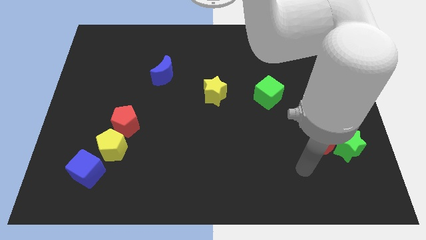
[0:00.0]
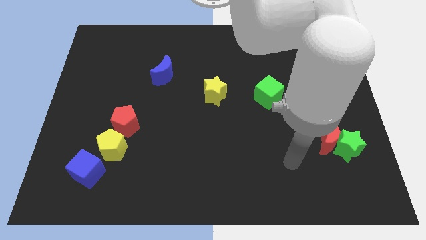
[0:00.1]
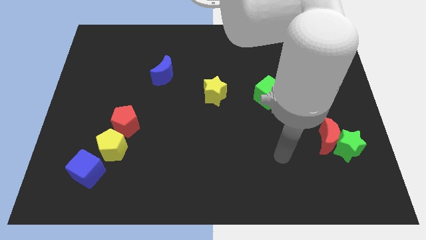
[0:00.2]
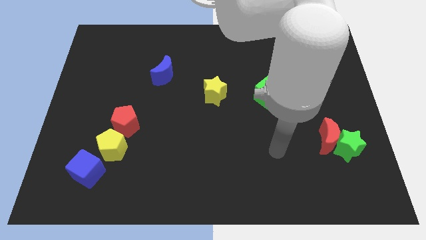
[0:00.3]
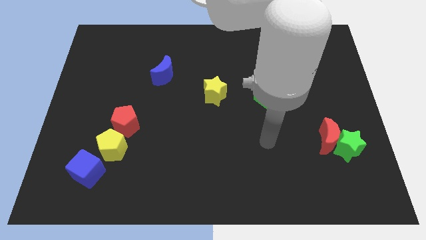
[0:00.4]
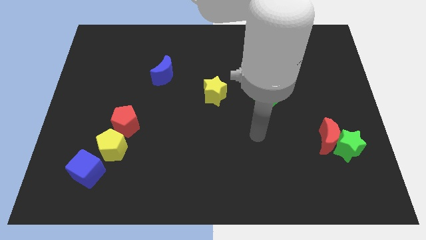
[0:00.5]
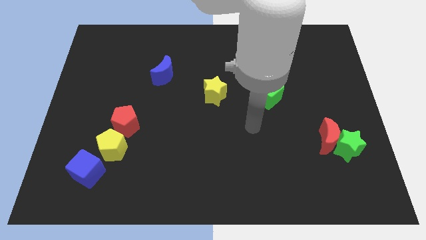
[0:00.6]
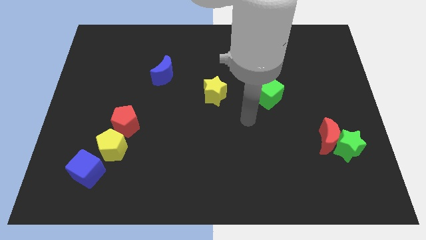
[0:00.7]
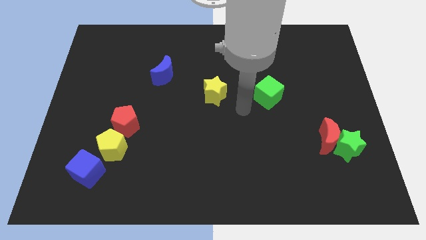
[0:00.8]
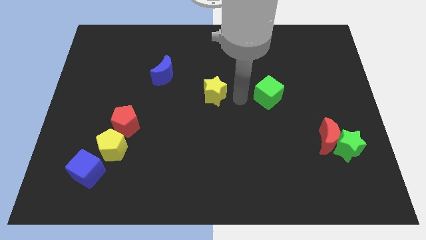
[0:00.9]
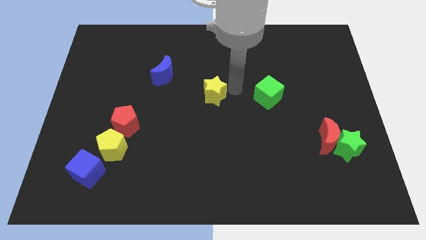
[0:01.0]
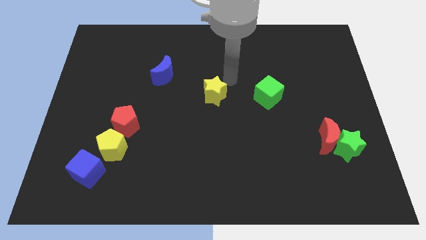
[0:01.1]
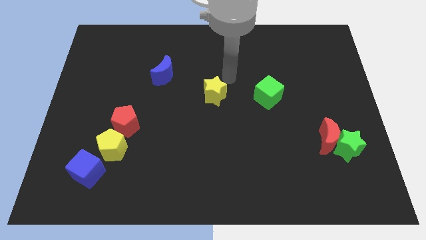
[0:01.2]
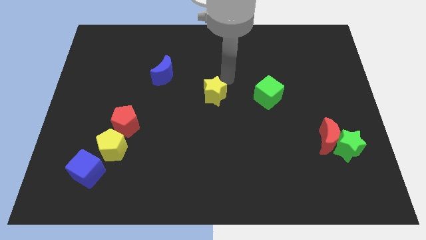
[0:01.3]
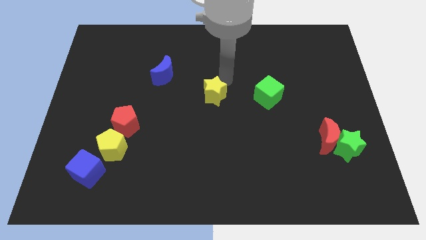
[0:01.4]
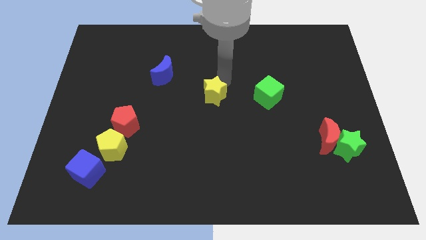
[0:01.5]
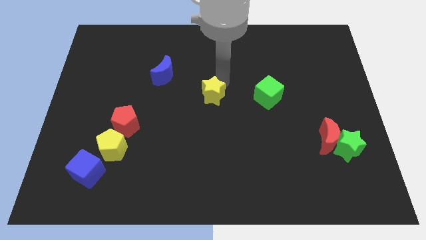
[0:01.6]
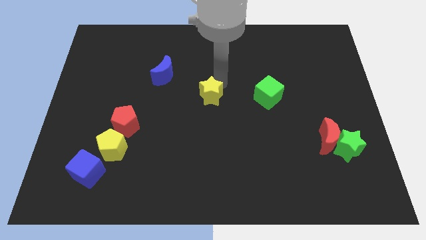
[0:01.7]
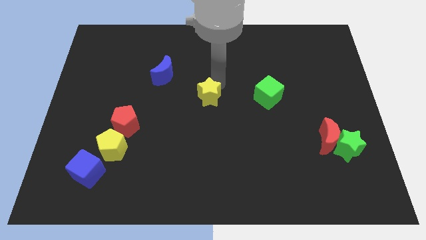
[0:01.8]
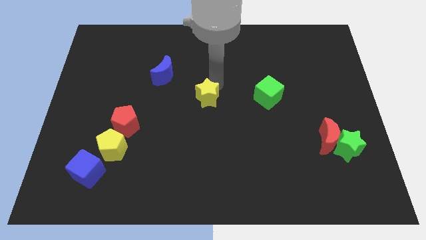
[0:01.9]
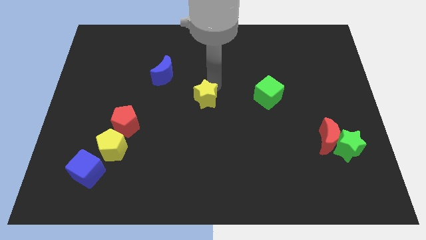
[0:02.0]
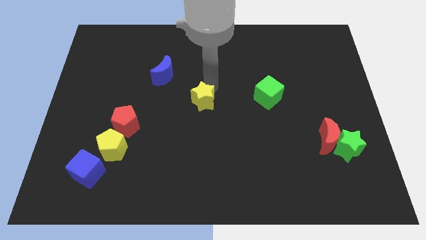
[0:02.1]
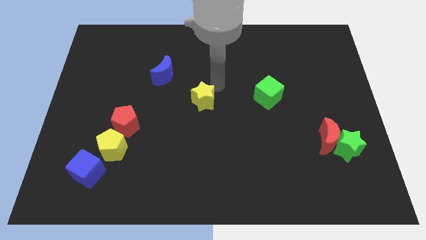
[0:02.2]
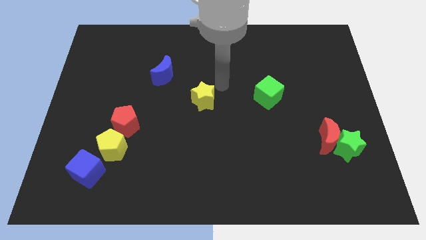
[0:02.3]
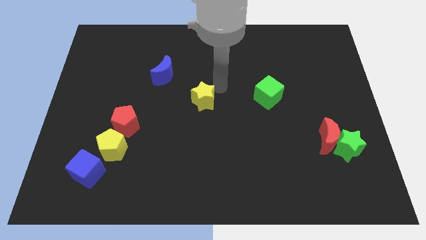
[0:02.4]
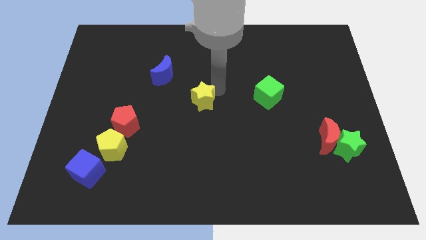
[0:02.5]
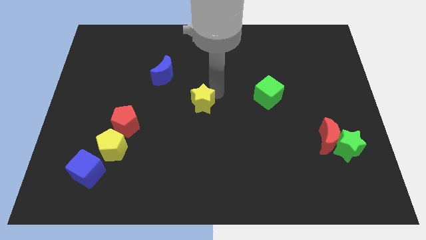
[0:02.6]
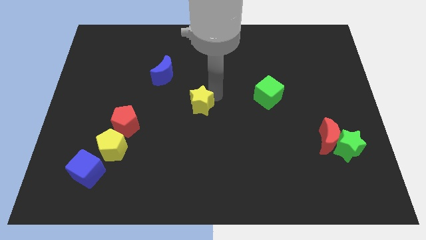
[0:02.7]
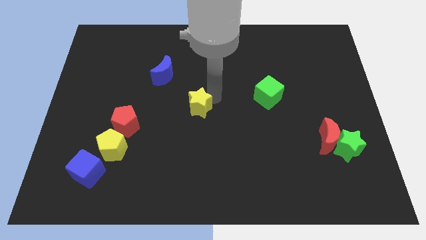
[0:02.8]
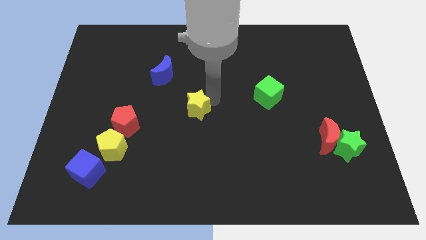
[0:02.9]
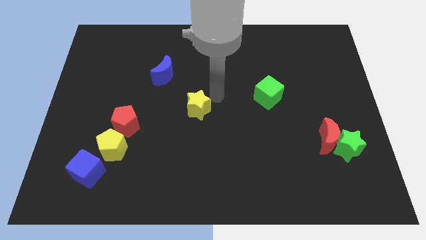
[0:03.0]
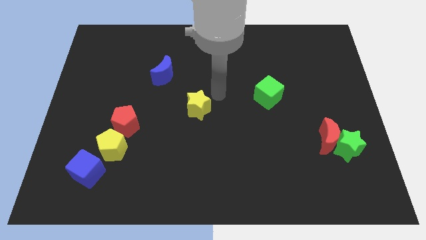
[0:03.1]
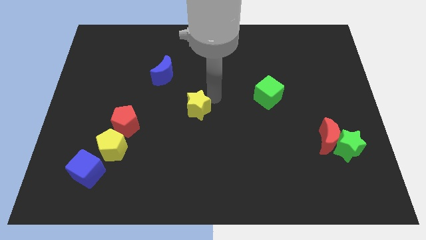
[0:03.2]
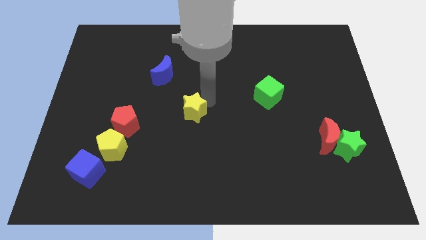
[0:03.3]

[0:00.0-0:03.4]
push the yellow star downwards and left a little bit

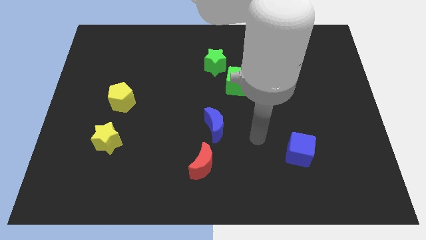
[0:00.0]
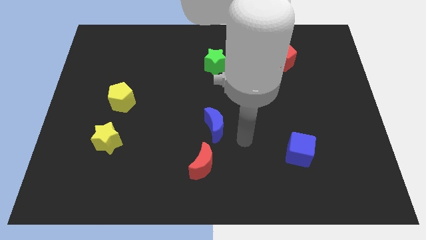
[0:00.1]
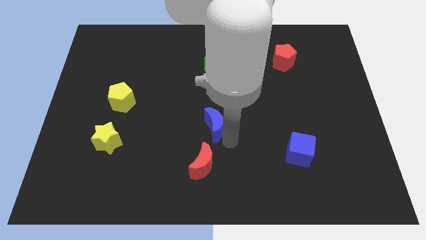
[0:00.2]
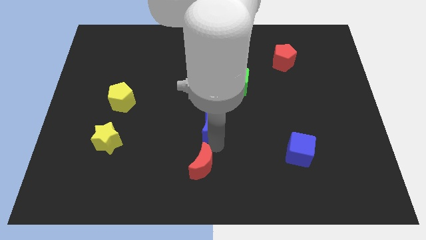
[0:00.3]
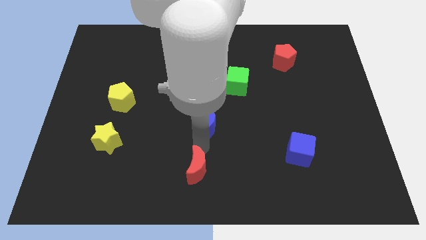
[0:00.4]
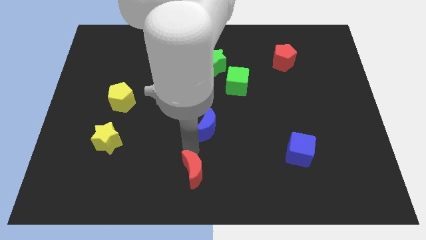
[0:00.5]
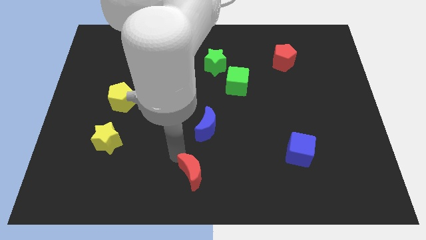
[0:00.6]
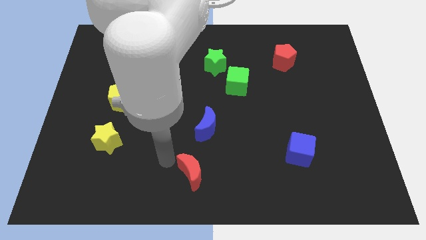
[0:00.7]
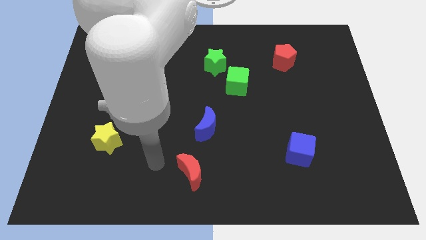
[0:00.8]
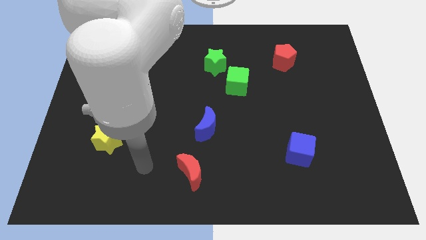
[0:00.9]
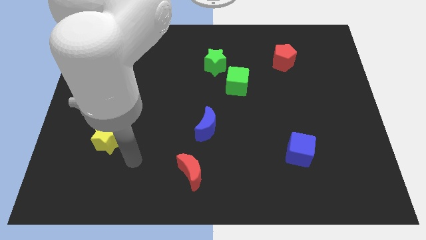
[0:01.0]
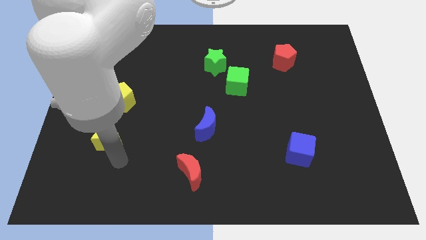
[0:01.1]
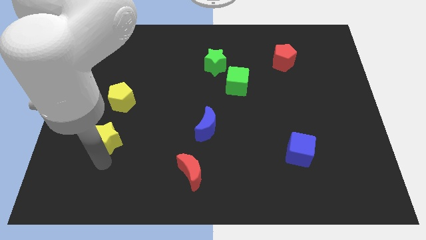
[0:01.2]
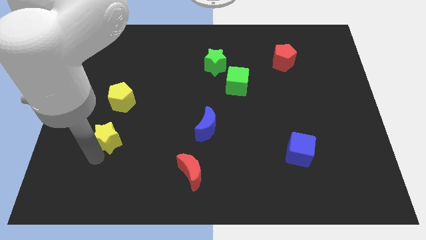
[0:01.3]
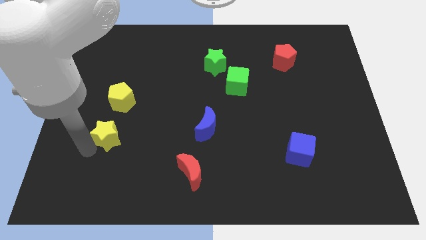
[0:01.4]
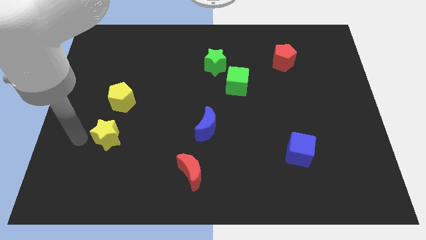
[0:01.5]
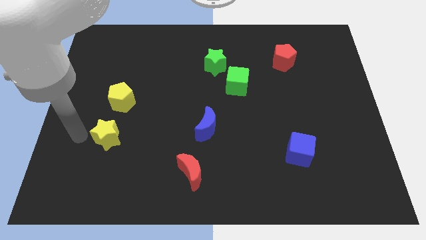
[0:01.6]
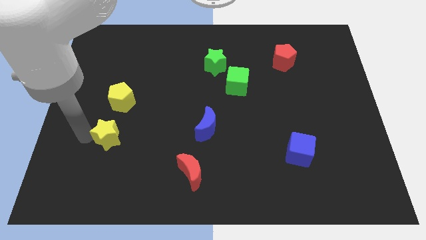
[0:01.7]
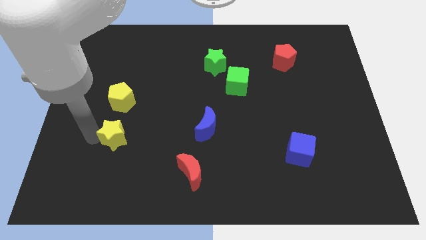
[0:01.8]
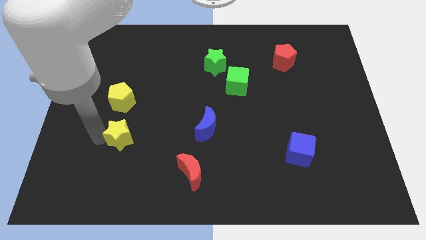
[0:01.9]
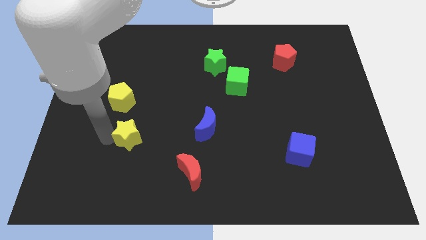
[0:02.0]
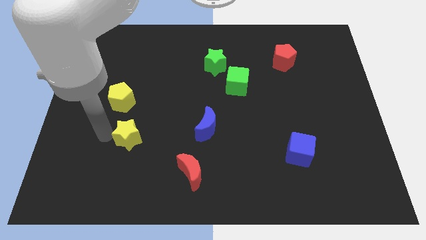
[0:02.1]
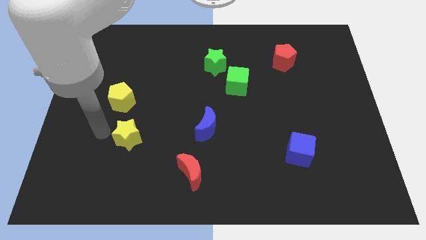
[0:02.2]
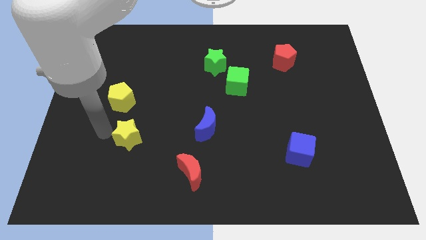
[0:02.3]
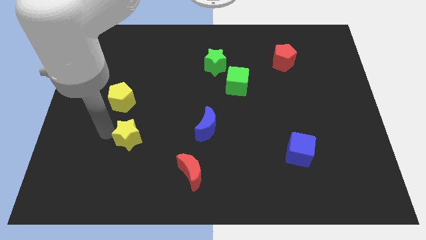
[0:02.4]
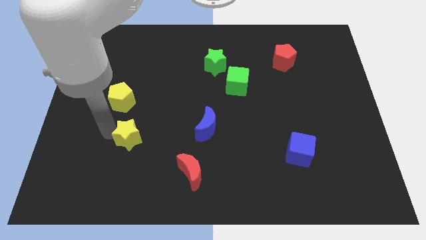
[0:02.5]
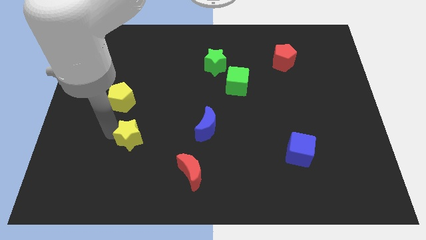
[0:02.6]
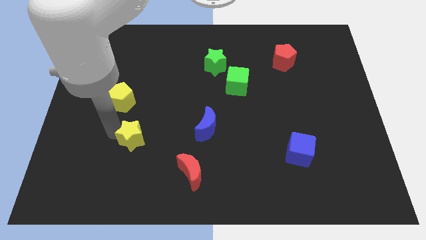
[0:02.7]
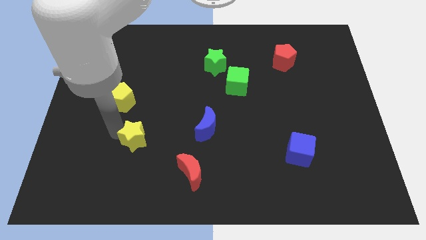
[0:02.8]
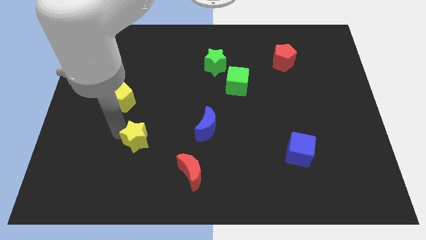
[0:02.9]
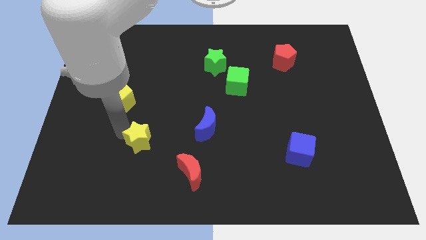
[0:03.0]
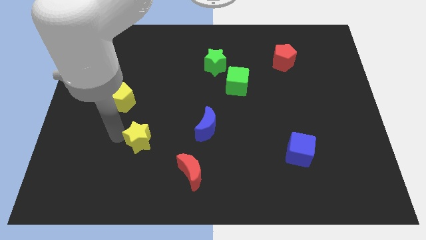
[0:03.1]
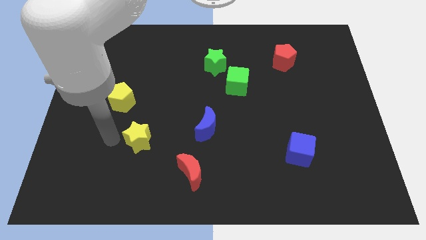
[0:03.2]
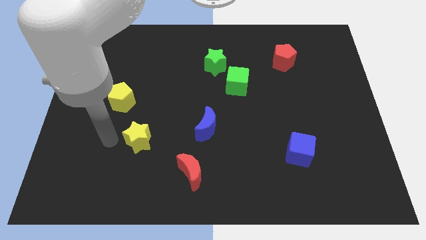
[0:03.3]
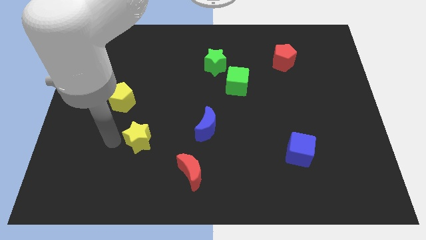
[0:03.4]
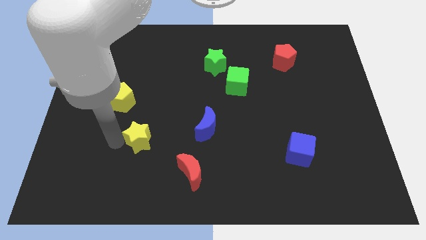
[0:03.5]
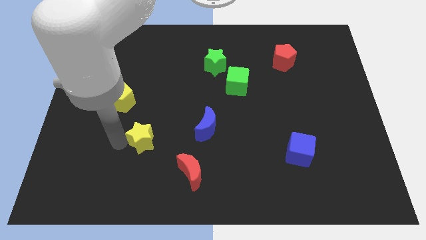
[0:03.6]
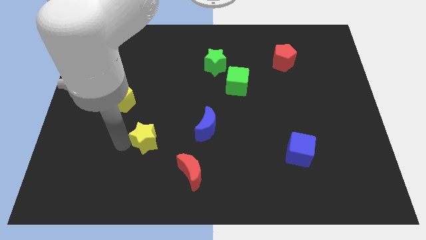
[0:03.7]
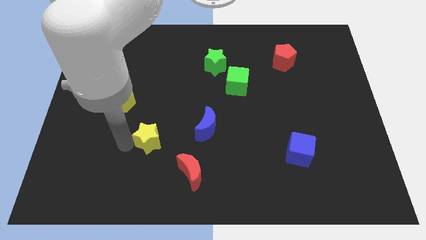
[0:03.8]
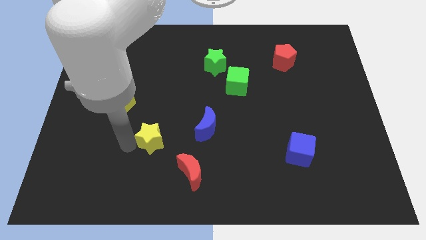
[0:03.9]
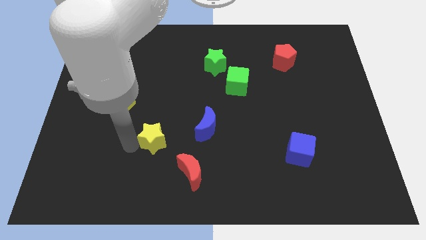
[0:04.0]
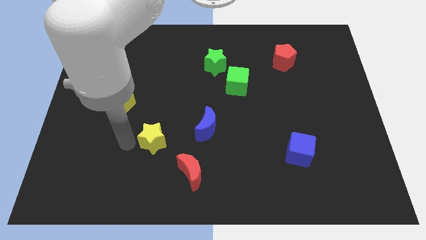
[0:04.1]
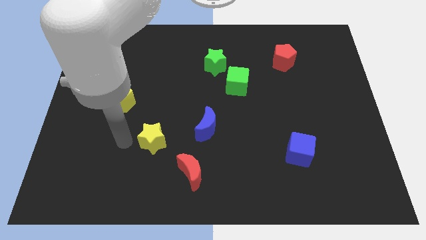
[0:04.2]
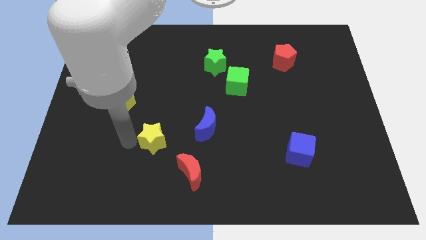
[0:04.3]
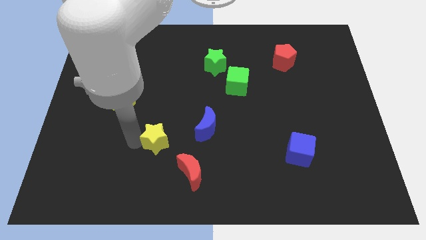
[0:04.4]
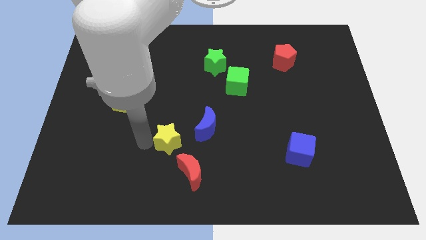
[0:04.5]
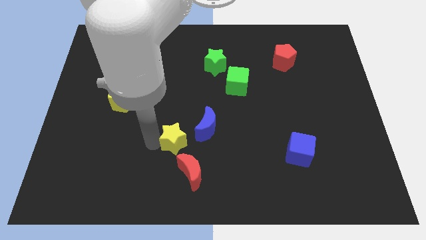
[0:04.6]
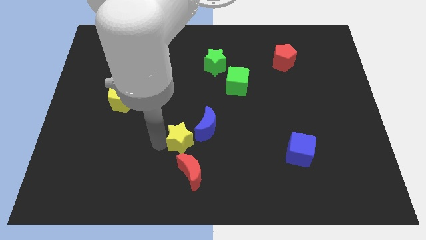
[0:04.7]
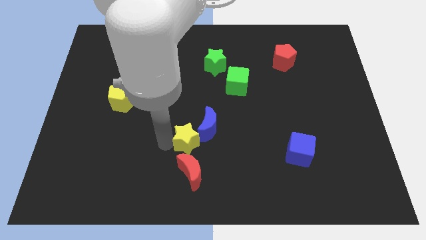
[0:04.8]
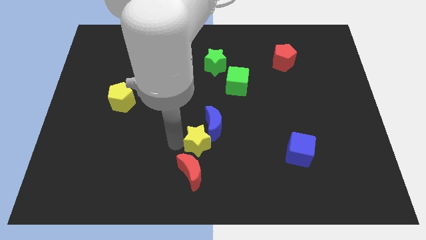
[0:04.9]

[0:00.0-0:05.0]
move the yellow star to the right

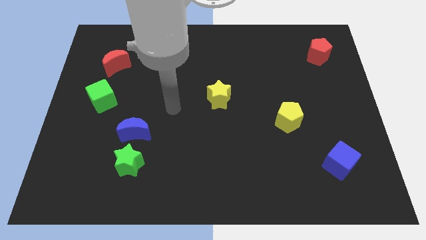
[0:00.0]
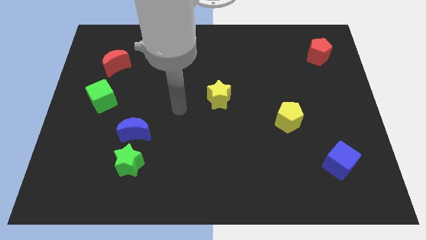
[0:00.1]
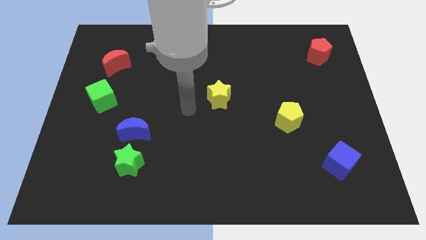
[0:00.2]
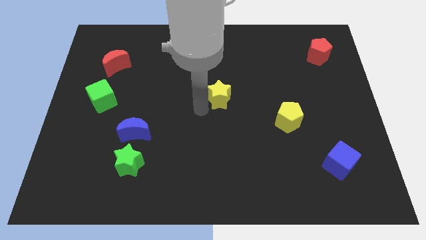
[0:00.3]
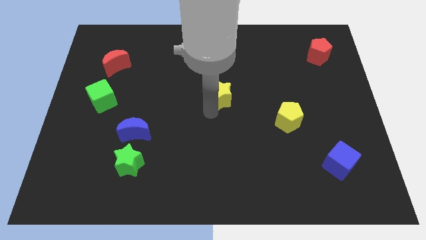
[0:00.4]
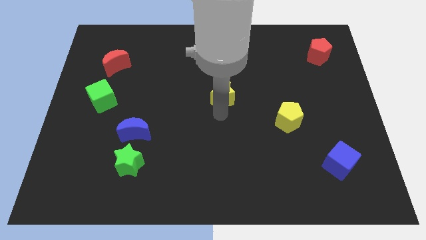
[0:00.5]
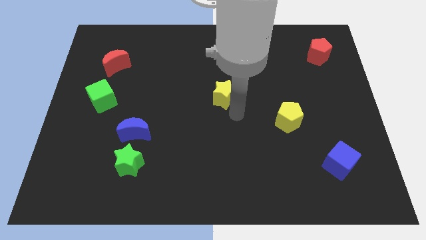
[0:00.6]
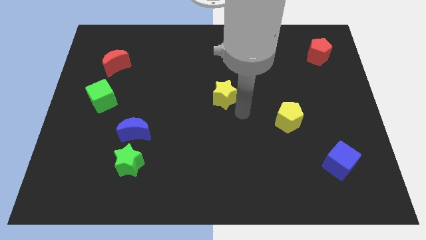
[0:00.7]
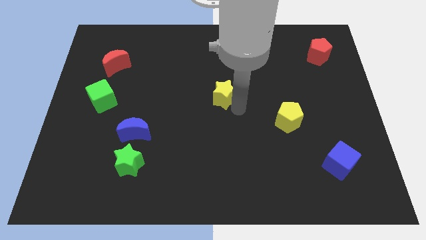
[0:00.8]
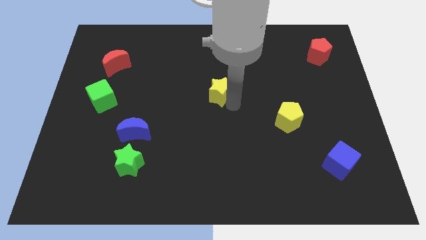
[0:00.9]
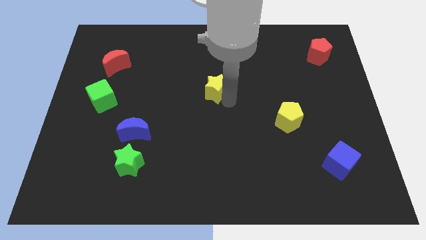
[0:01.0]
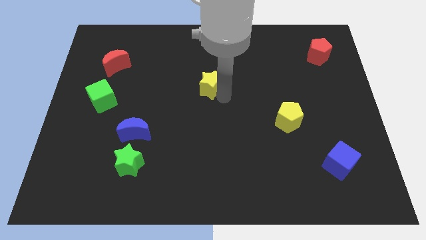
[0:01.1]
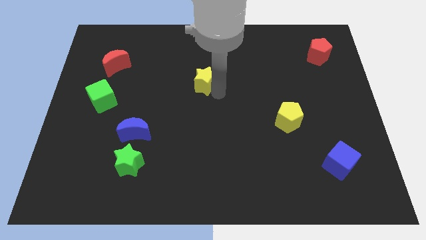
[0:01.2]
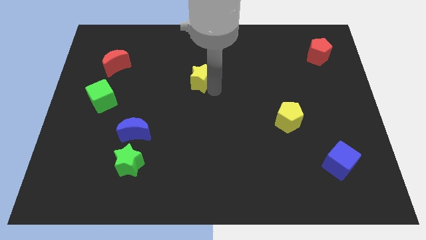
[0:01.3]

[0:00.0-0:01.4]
slightly slide the yellow star up and then to the left
